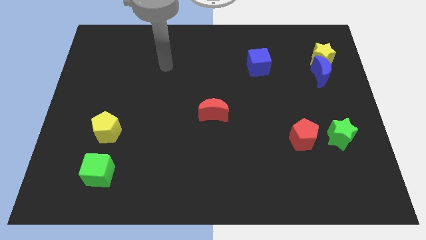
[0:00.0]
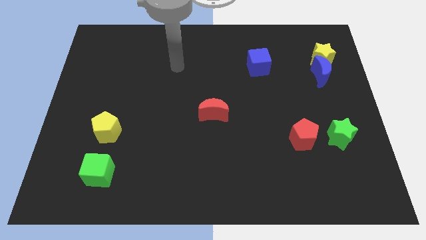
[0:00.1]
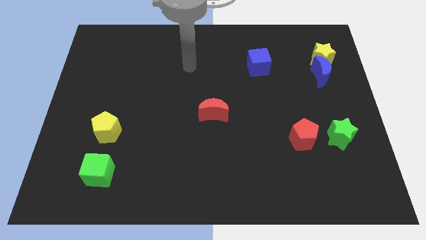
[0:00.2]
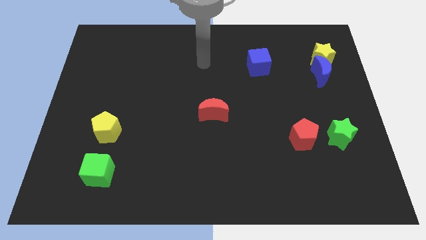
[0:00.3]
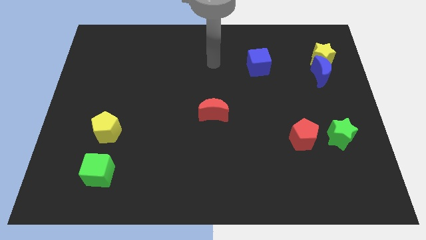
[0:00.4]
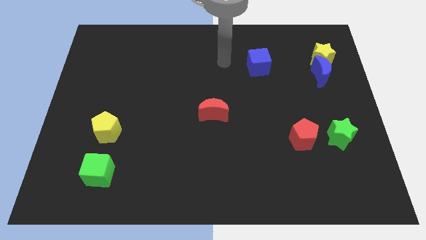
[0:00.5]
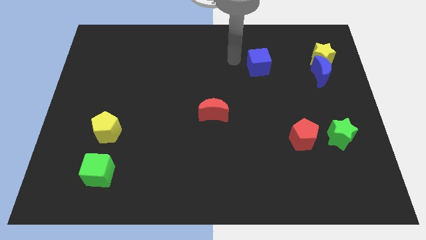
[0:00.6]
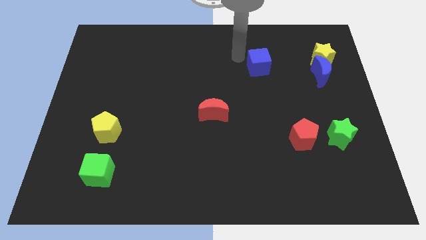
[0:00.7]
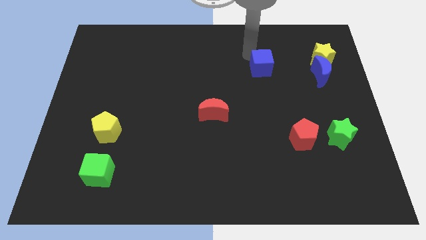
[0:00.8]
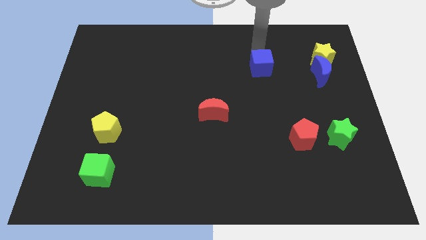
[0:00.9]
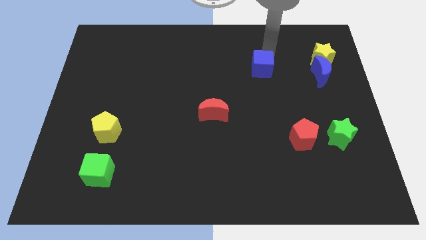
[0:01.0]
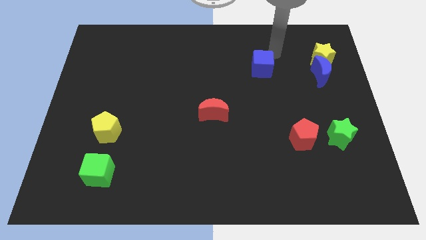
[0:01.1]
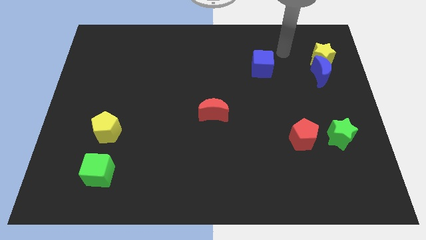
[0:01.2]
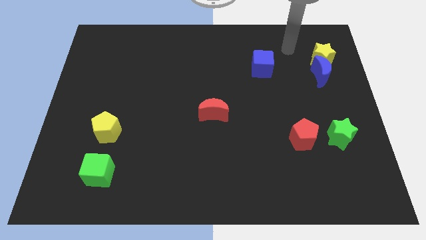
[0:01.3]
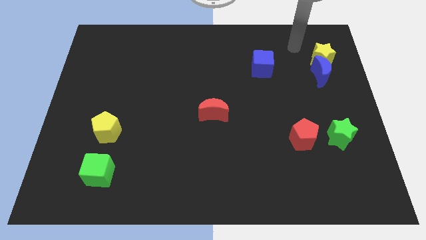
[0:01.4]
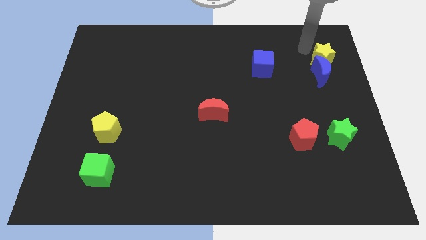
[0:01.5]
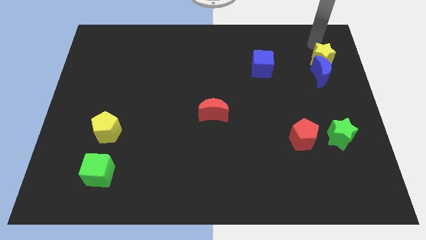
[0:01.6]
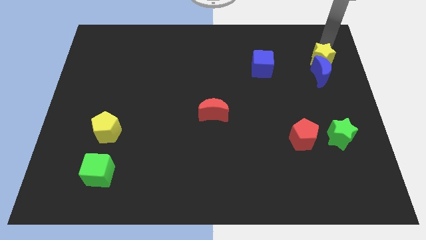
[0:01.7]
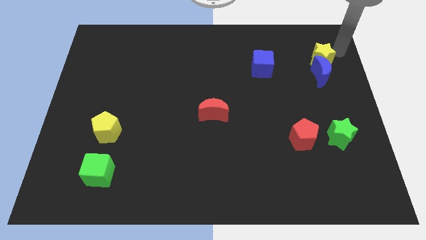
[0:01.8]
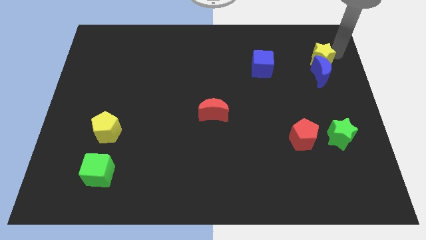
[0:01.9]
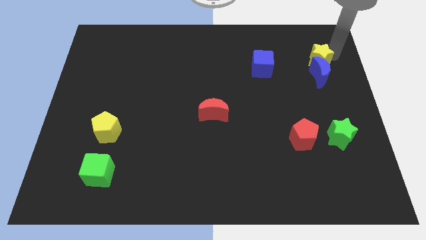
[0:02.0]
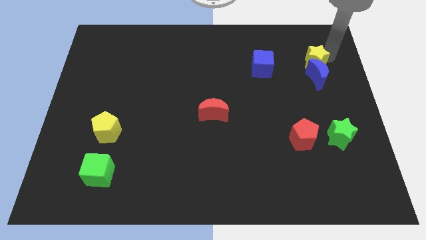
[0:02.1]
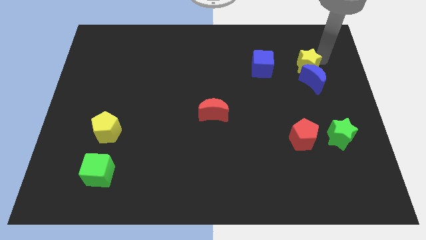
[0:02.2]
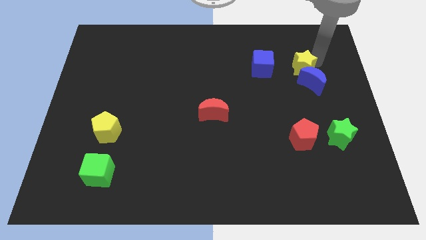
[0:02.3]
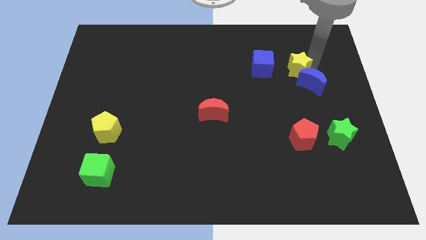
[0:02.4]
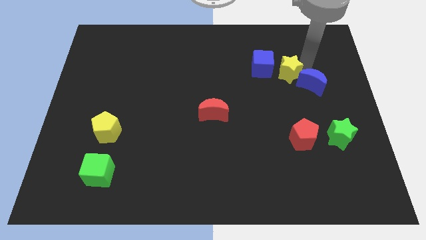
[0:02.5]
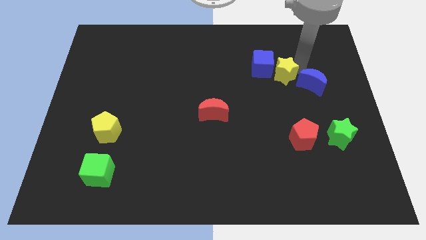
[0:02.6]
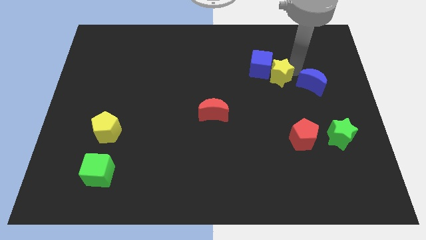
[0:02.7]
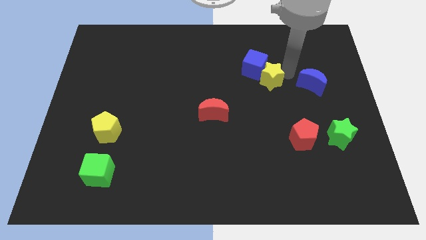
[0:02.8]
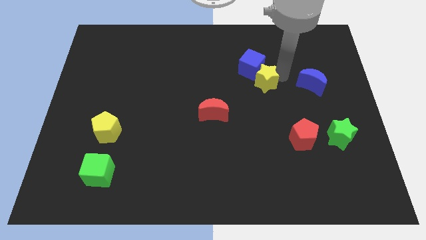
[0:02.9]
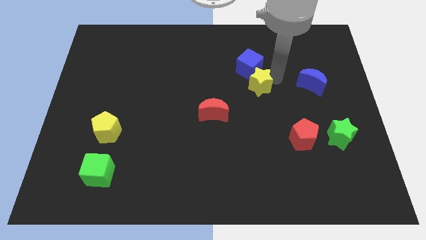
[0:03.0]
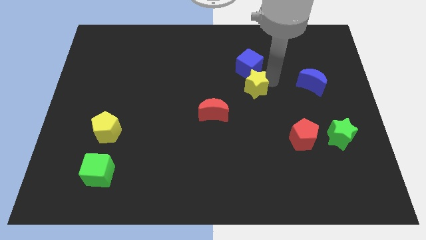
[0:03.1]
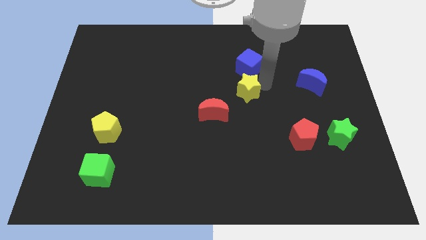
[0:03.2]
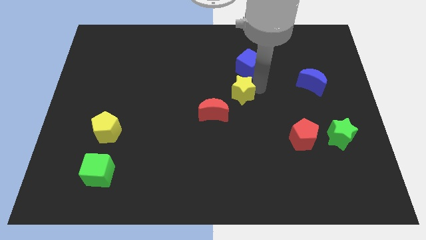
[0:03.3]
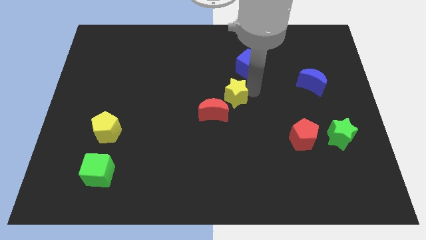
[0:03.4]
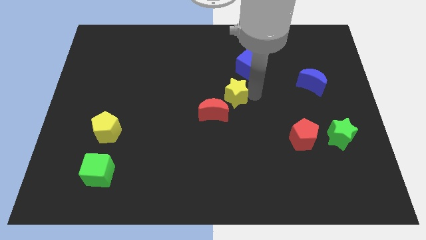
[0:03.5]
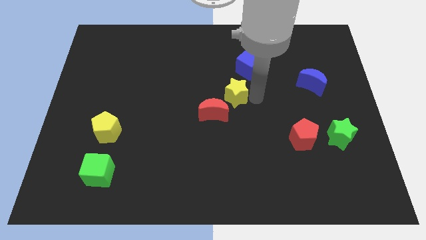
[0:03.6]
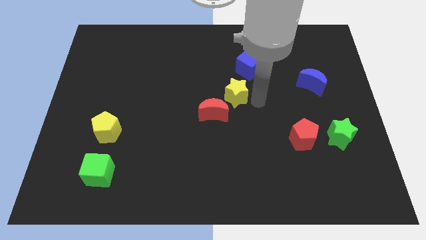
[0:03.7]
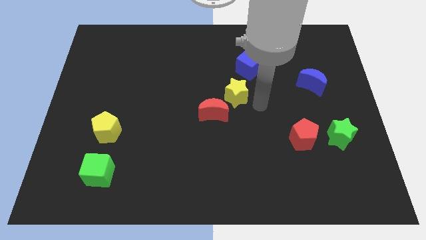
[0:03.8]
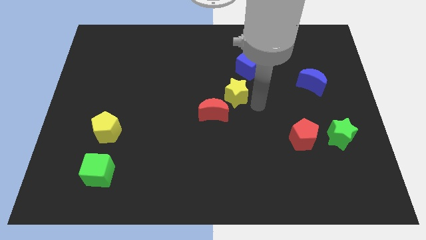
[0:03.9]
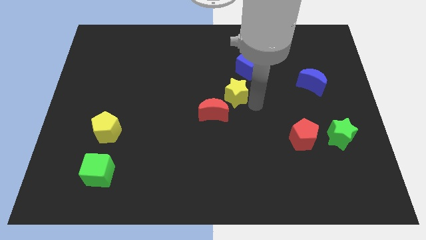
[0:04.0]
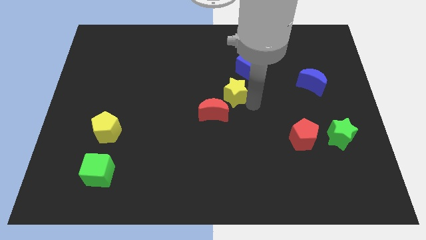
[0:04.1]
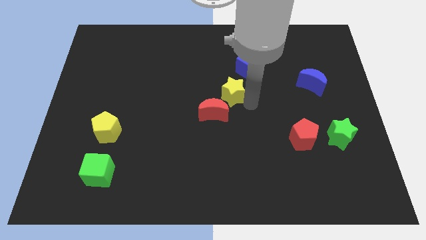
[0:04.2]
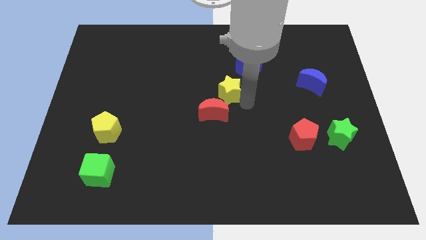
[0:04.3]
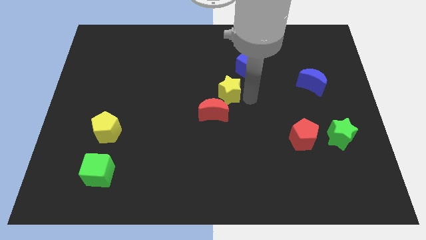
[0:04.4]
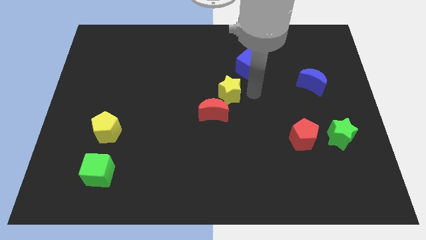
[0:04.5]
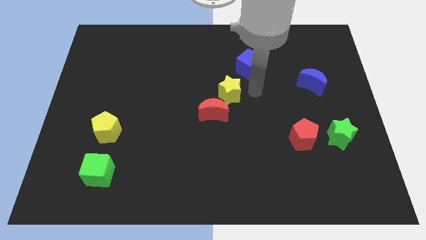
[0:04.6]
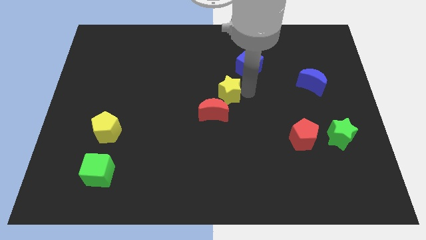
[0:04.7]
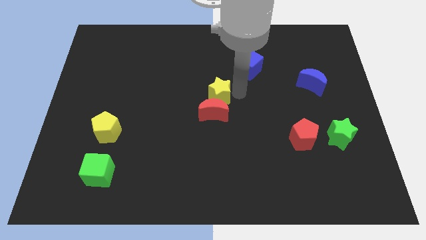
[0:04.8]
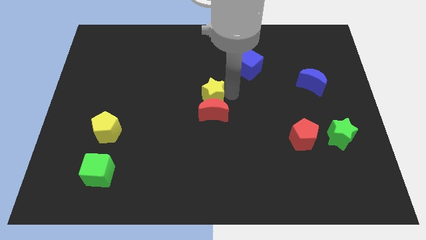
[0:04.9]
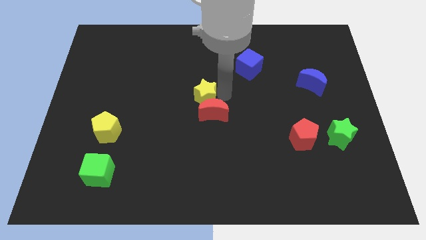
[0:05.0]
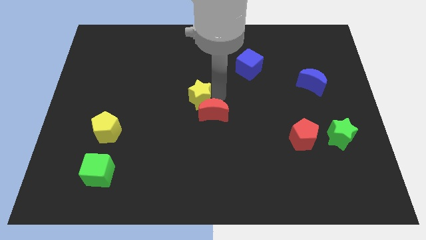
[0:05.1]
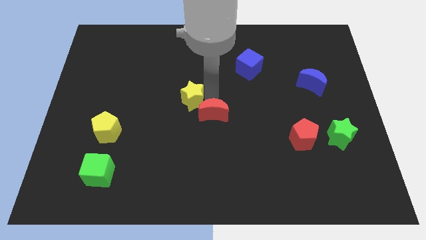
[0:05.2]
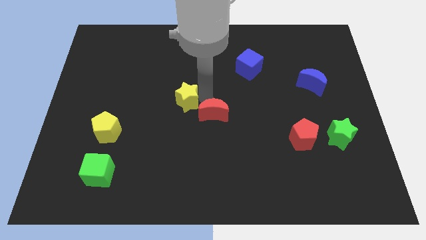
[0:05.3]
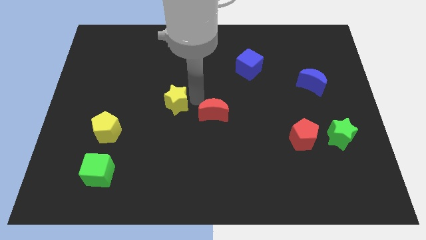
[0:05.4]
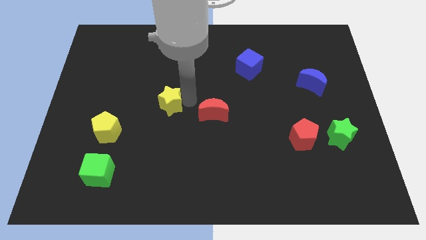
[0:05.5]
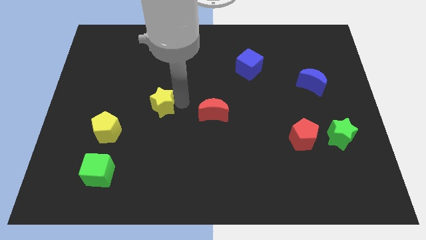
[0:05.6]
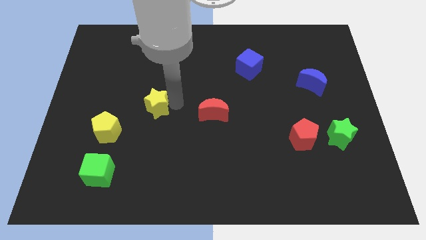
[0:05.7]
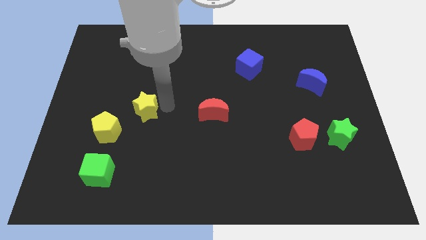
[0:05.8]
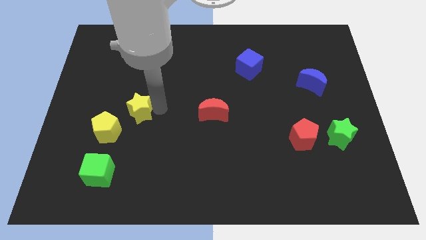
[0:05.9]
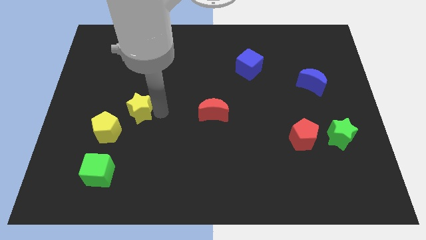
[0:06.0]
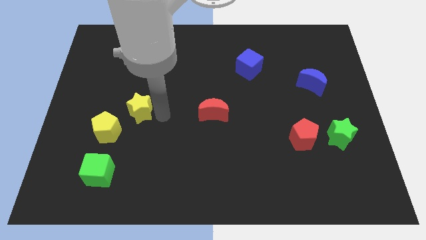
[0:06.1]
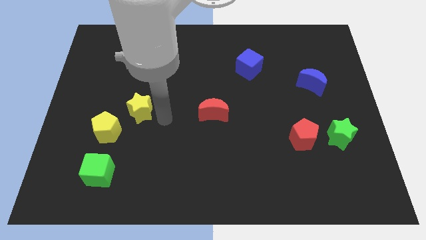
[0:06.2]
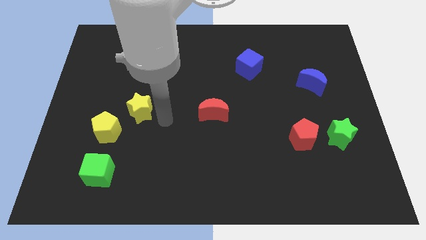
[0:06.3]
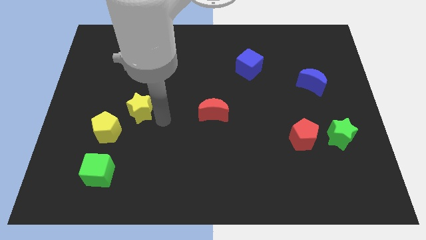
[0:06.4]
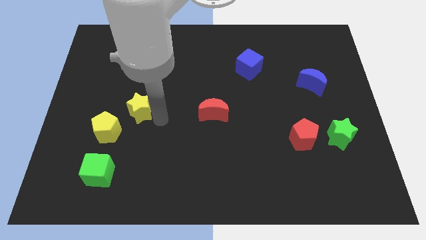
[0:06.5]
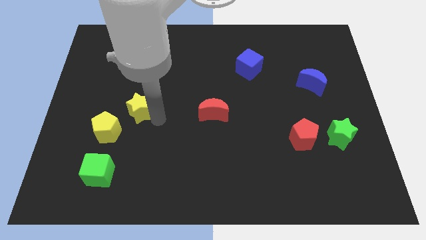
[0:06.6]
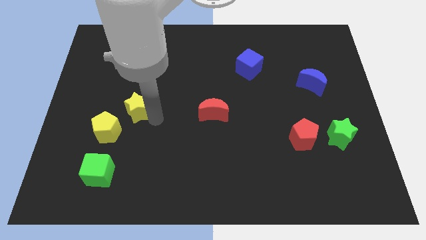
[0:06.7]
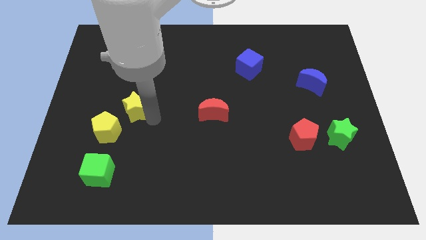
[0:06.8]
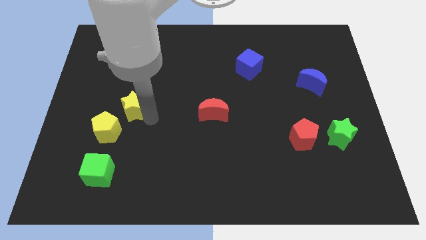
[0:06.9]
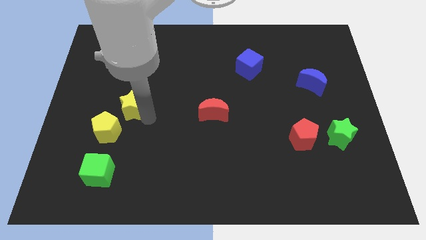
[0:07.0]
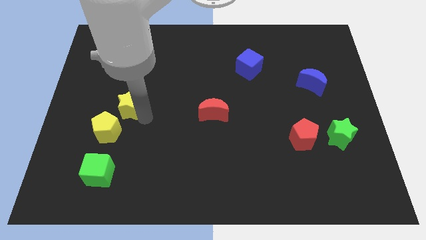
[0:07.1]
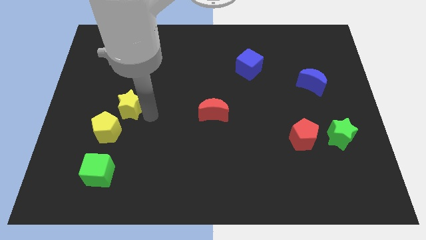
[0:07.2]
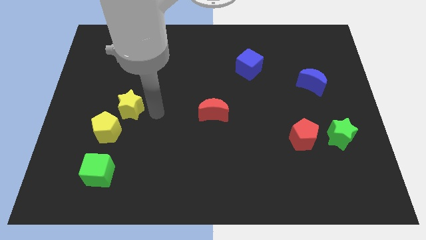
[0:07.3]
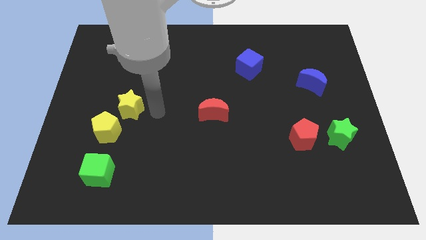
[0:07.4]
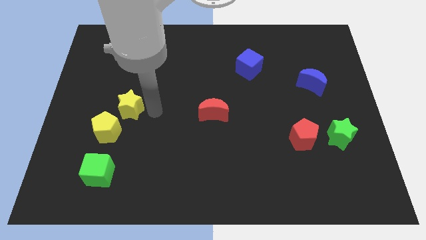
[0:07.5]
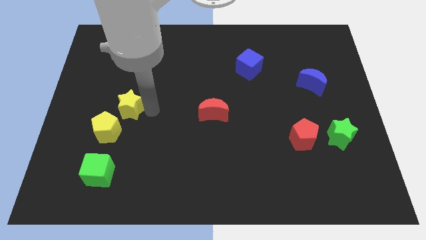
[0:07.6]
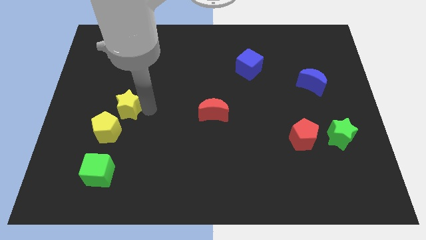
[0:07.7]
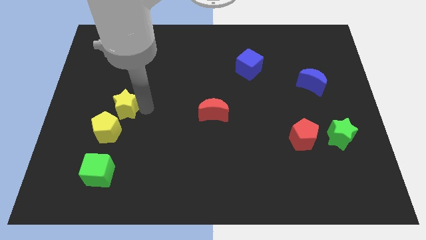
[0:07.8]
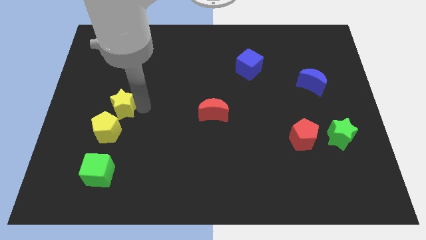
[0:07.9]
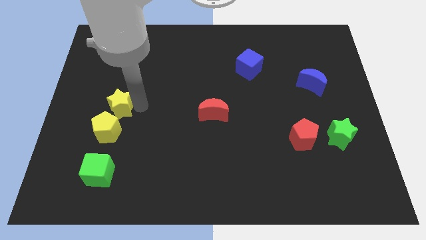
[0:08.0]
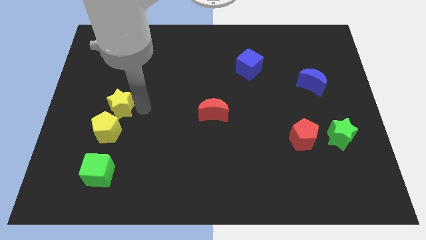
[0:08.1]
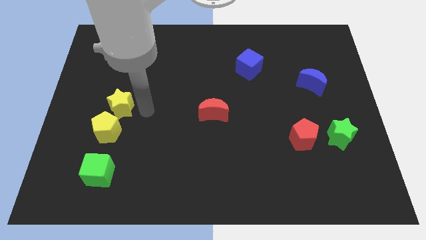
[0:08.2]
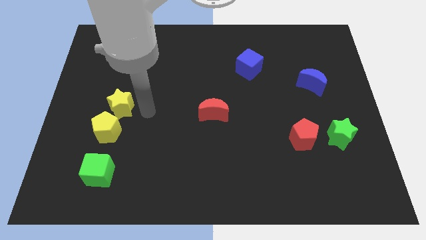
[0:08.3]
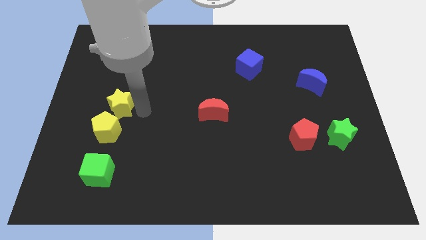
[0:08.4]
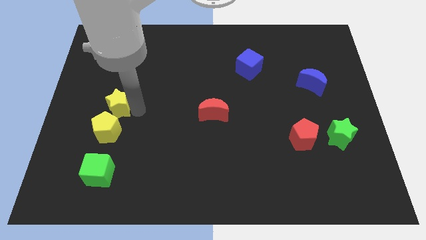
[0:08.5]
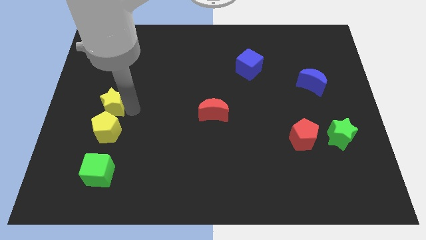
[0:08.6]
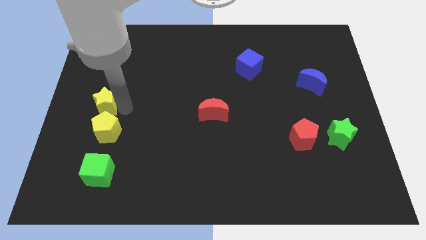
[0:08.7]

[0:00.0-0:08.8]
put the yellow star to the left side of the board
